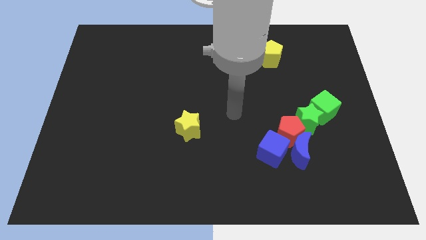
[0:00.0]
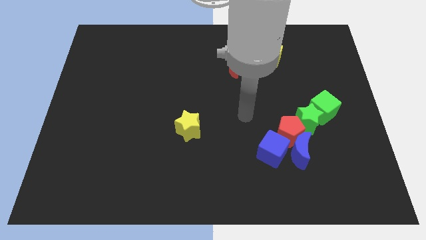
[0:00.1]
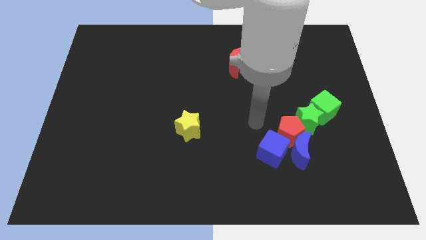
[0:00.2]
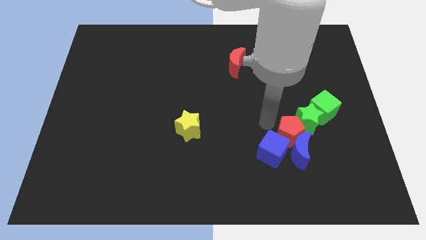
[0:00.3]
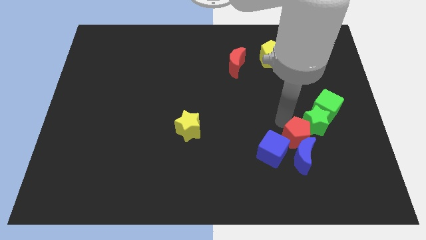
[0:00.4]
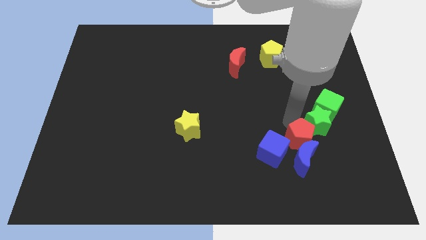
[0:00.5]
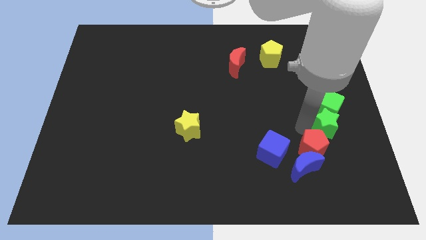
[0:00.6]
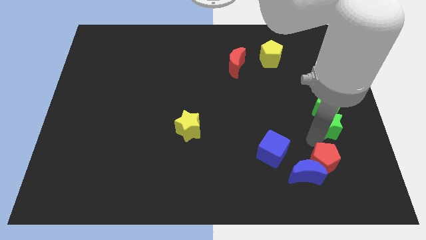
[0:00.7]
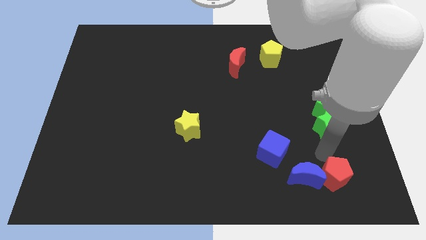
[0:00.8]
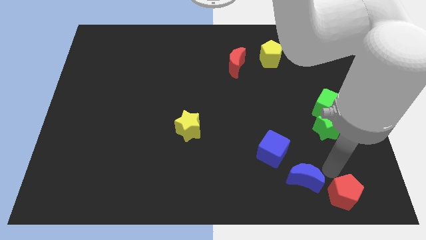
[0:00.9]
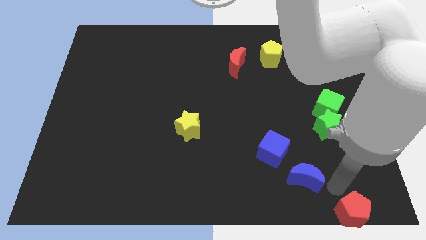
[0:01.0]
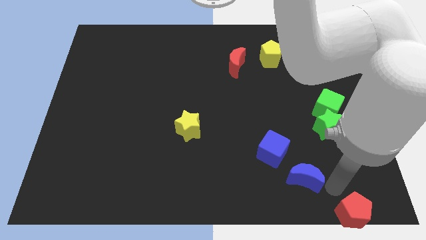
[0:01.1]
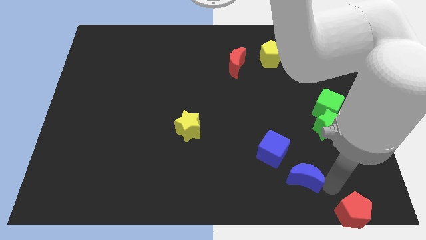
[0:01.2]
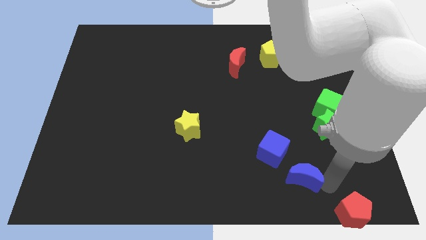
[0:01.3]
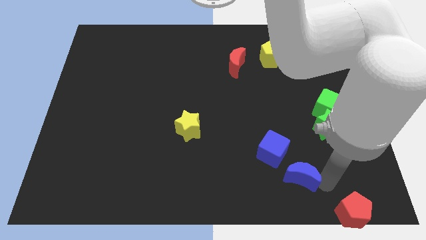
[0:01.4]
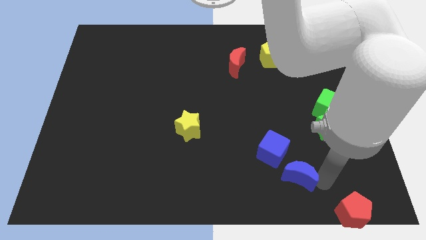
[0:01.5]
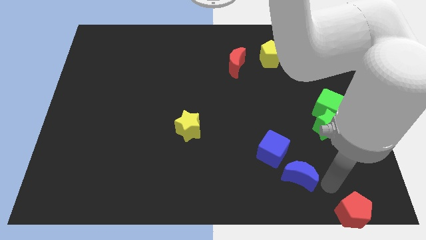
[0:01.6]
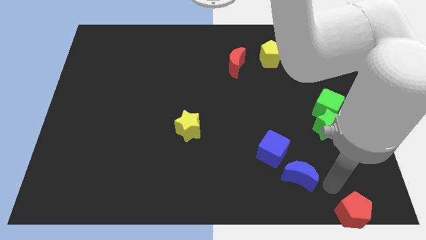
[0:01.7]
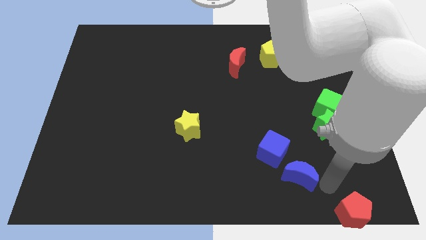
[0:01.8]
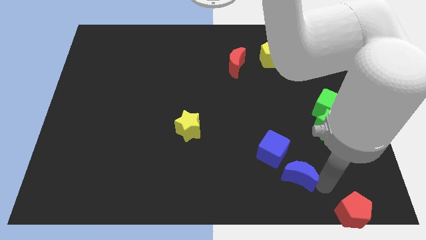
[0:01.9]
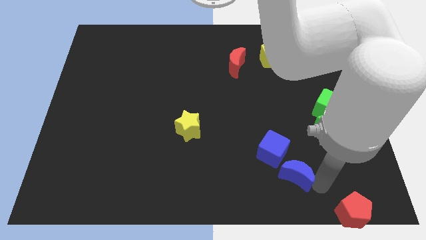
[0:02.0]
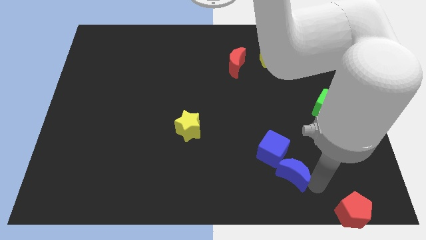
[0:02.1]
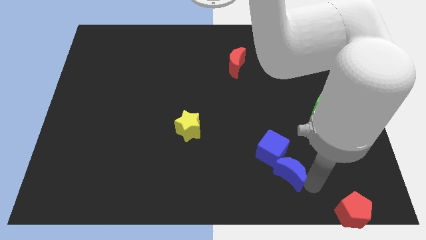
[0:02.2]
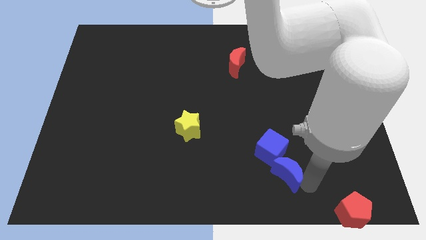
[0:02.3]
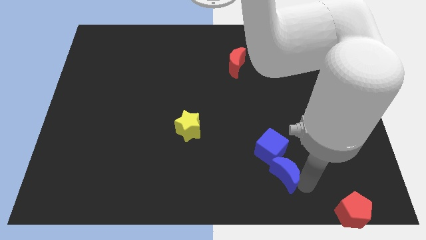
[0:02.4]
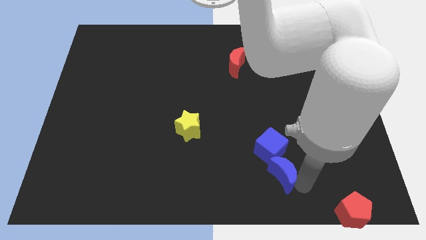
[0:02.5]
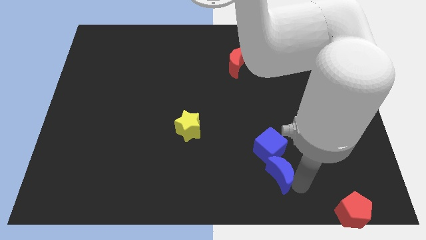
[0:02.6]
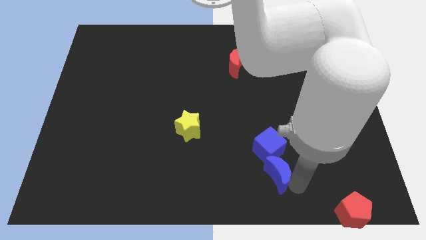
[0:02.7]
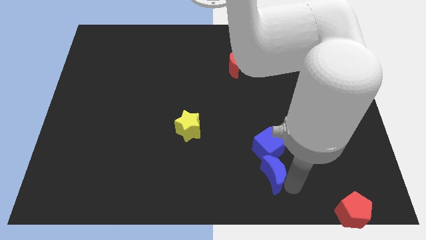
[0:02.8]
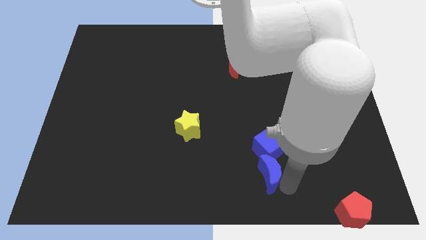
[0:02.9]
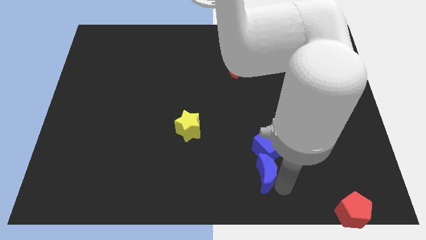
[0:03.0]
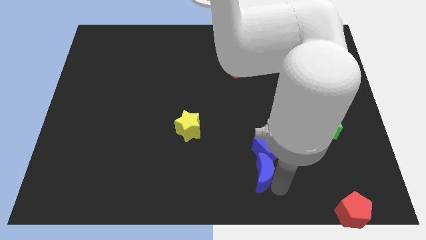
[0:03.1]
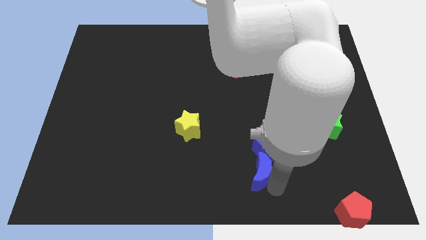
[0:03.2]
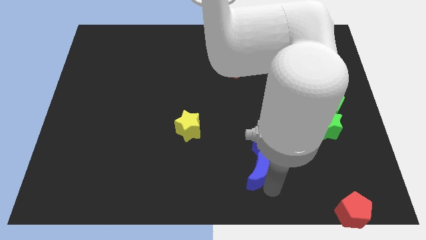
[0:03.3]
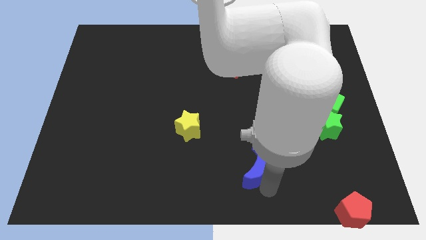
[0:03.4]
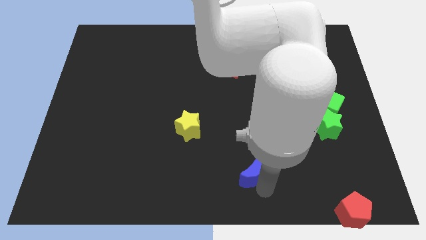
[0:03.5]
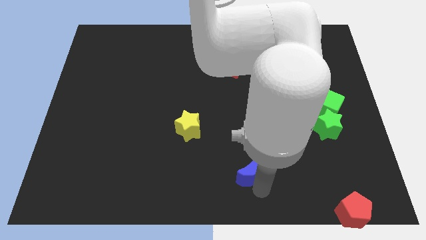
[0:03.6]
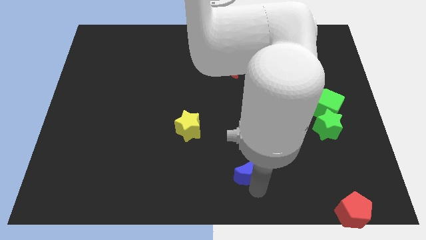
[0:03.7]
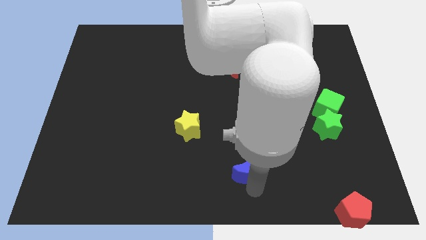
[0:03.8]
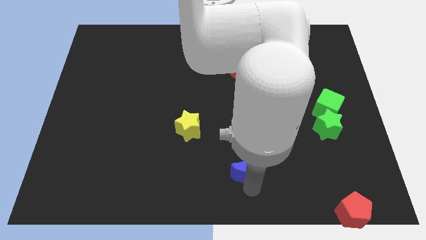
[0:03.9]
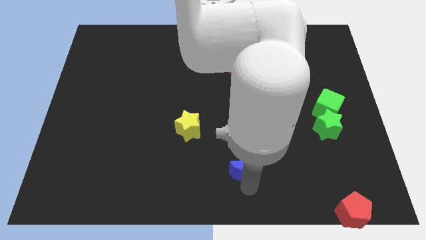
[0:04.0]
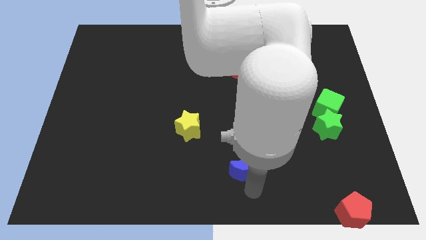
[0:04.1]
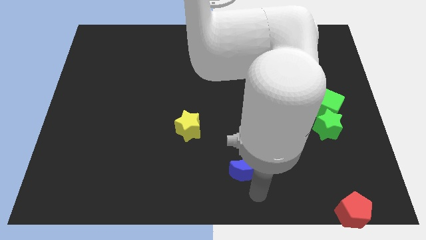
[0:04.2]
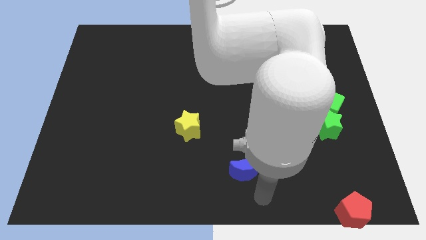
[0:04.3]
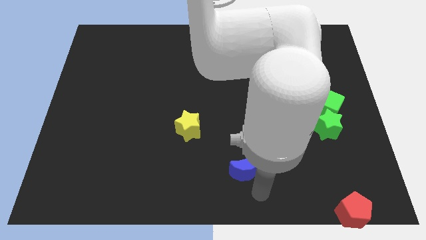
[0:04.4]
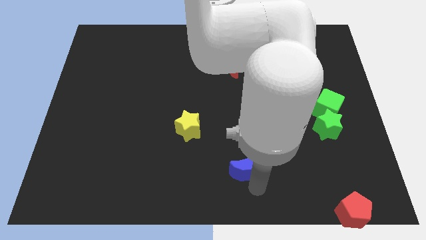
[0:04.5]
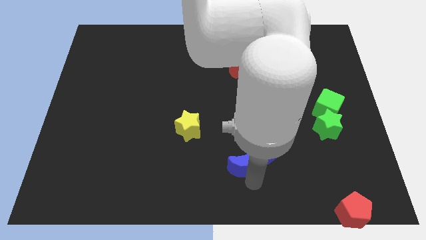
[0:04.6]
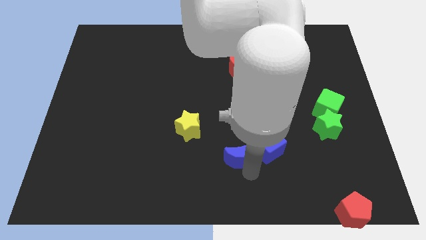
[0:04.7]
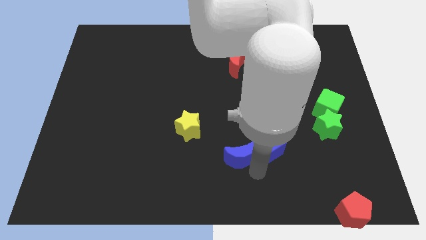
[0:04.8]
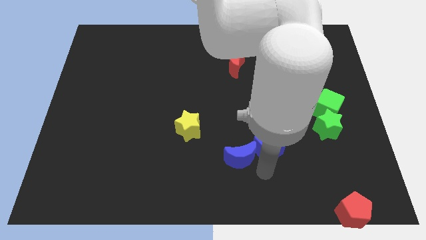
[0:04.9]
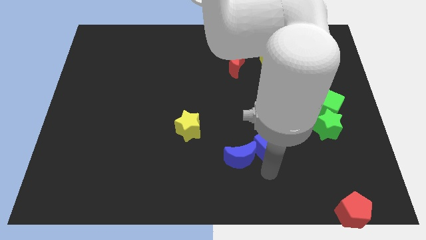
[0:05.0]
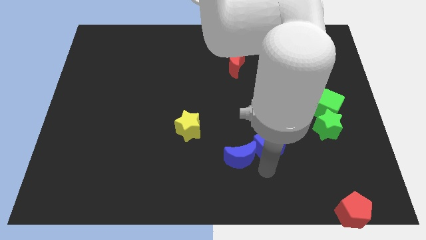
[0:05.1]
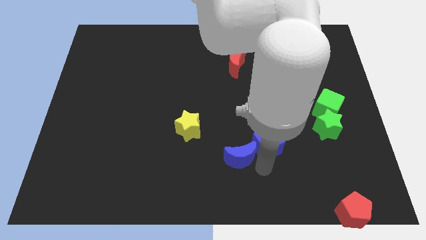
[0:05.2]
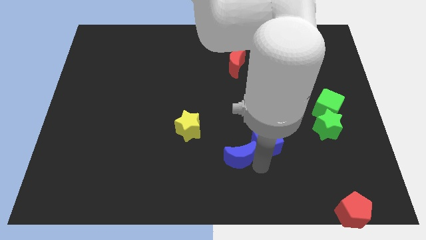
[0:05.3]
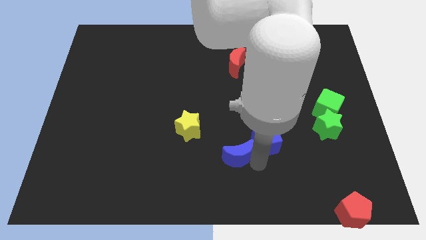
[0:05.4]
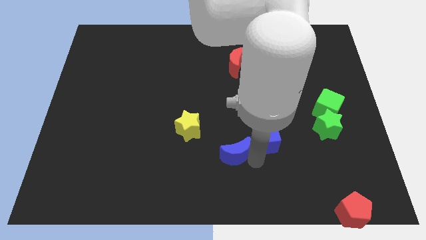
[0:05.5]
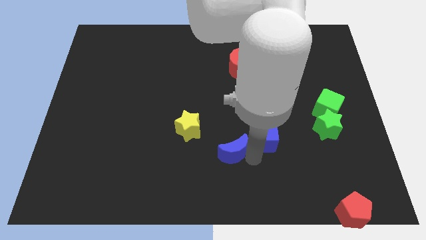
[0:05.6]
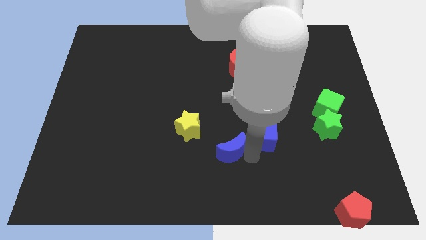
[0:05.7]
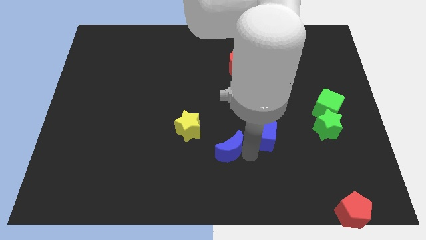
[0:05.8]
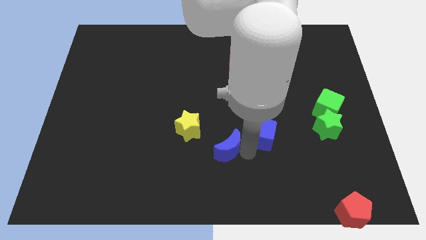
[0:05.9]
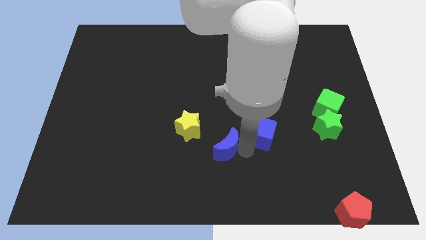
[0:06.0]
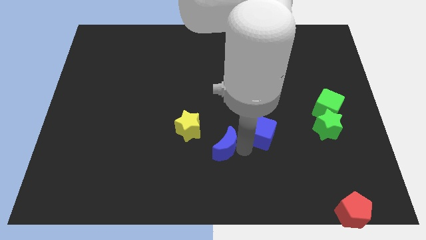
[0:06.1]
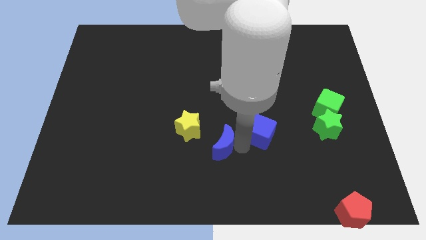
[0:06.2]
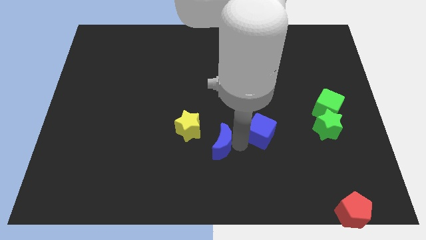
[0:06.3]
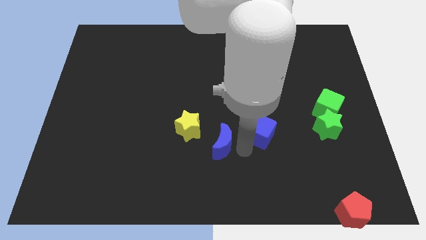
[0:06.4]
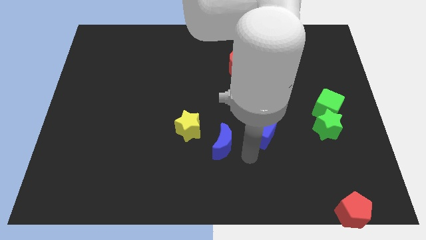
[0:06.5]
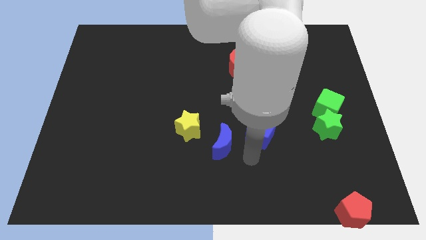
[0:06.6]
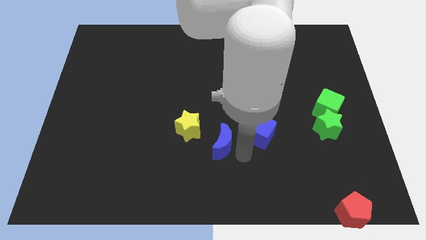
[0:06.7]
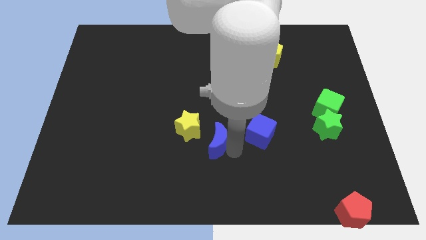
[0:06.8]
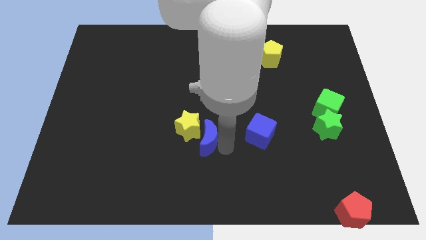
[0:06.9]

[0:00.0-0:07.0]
slide the blue moon towards the yellow star
